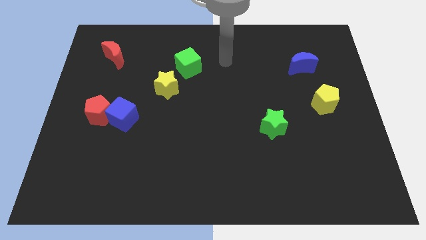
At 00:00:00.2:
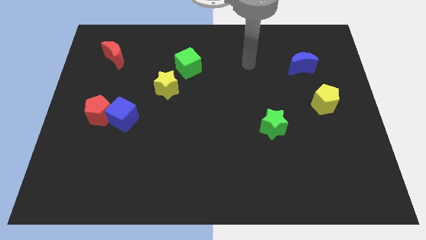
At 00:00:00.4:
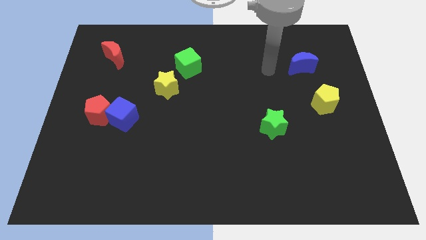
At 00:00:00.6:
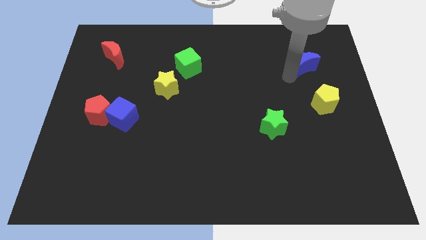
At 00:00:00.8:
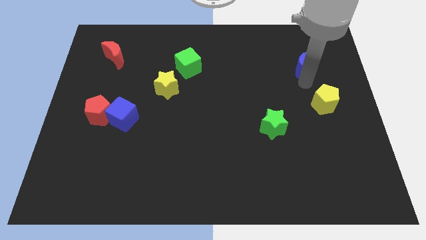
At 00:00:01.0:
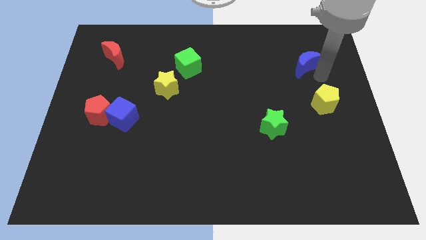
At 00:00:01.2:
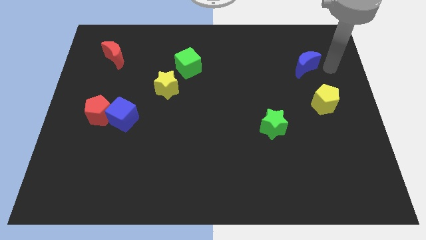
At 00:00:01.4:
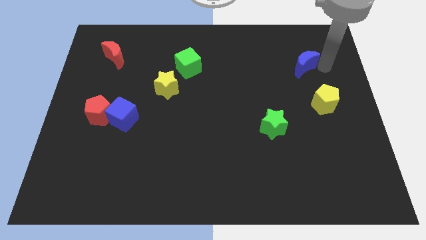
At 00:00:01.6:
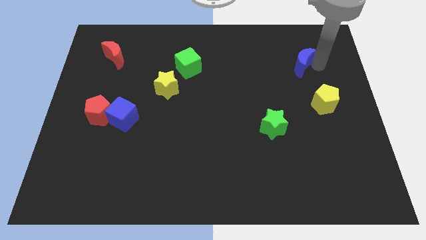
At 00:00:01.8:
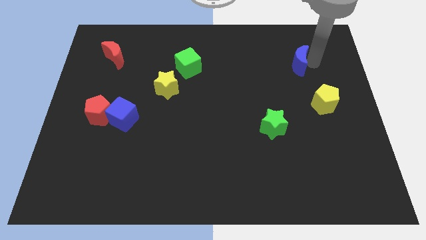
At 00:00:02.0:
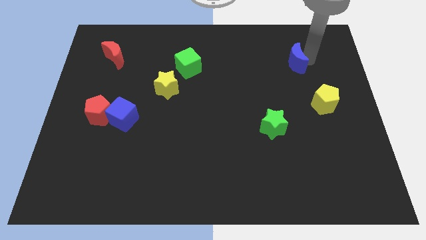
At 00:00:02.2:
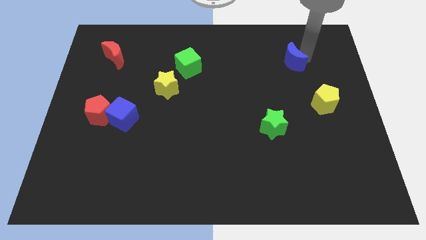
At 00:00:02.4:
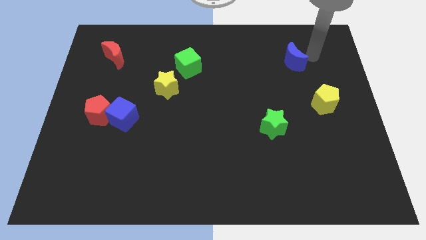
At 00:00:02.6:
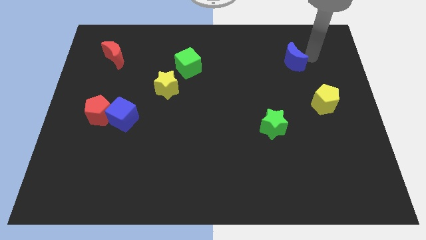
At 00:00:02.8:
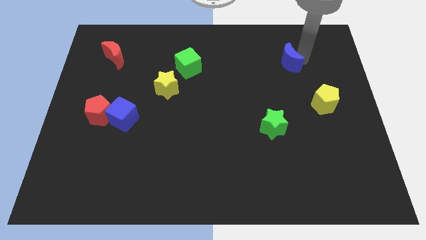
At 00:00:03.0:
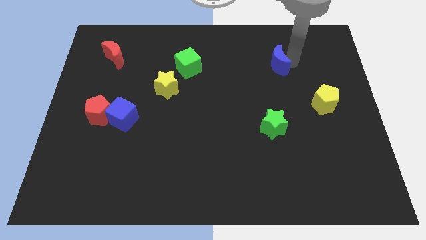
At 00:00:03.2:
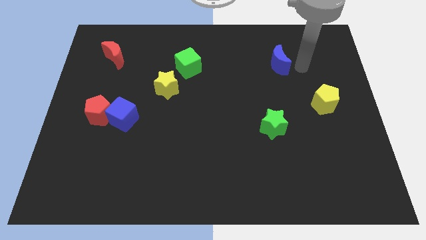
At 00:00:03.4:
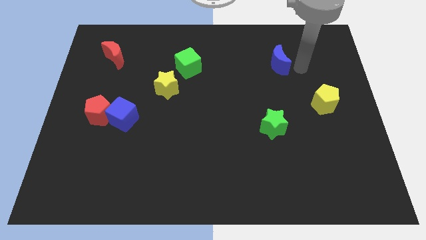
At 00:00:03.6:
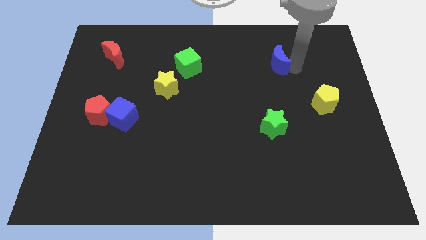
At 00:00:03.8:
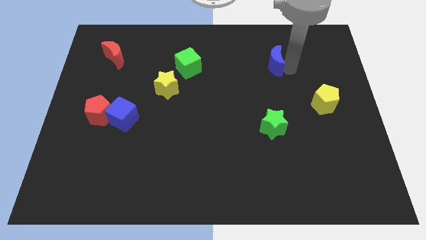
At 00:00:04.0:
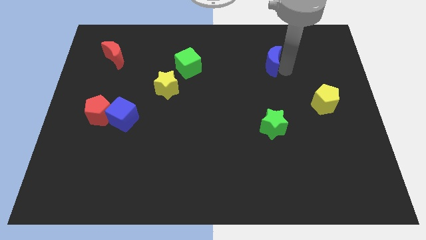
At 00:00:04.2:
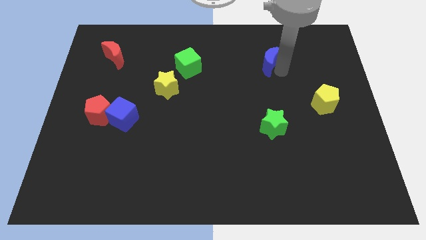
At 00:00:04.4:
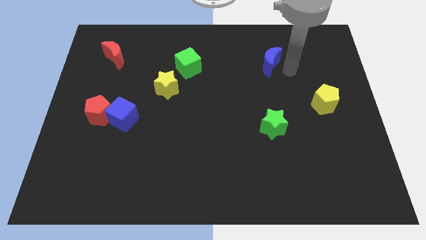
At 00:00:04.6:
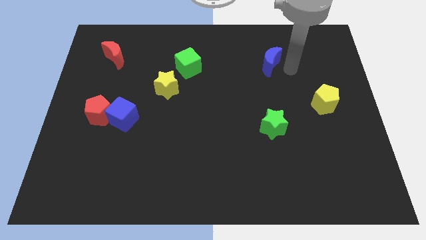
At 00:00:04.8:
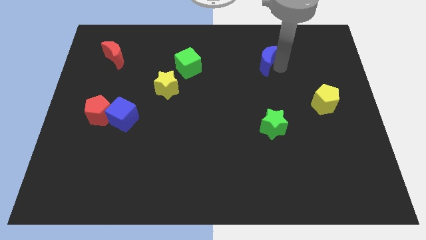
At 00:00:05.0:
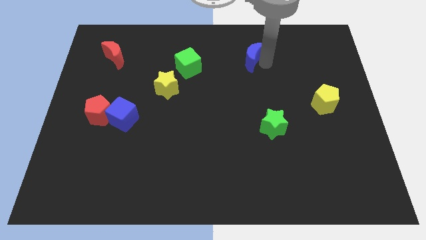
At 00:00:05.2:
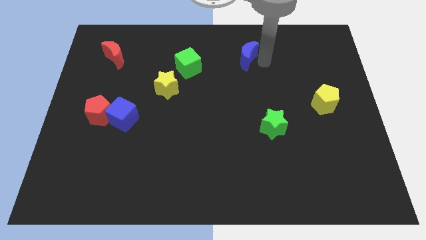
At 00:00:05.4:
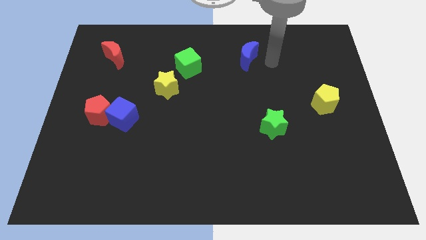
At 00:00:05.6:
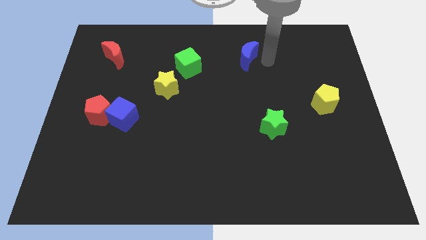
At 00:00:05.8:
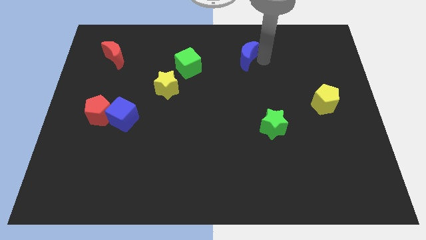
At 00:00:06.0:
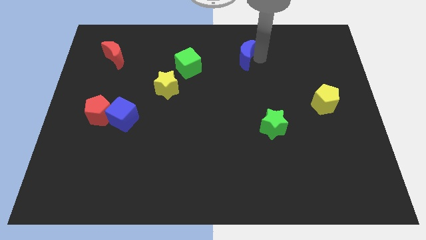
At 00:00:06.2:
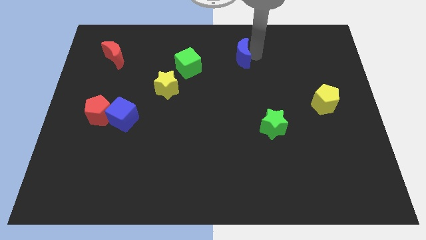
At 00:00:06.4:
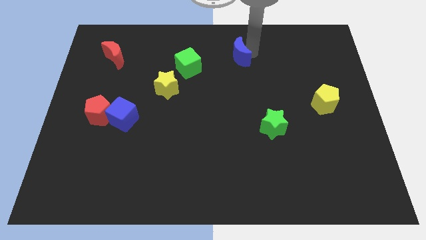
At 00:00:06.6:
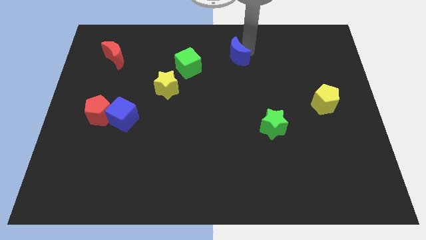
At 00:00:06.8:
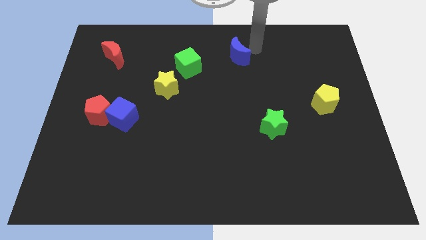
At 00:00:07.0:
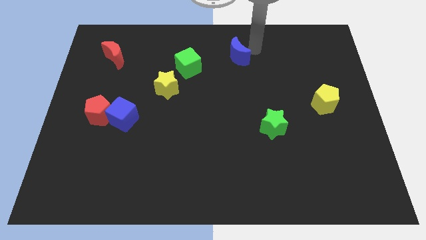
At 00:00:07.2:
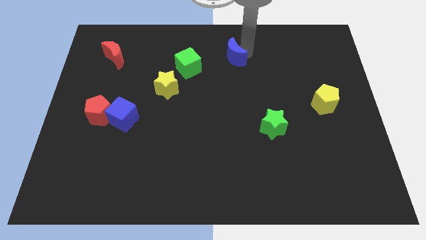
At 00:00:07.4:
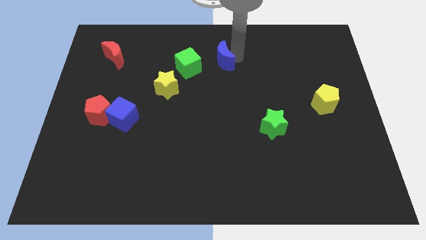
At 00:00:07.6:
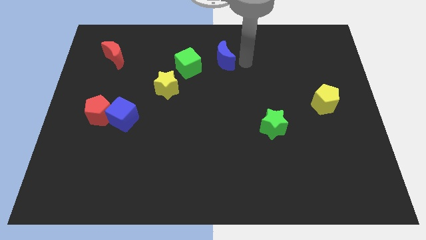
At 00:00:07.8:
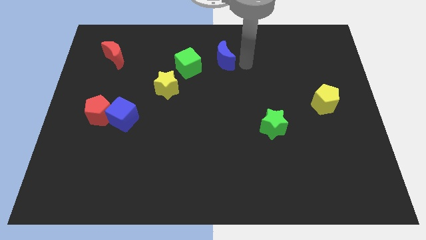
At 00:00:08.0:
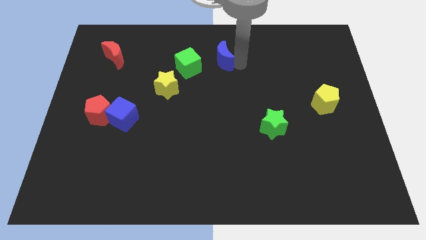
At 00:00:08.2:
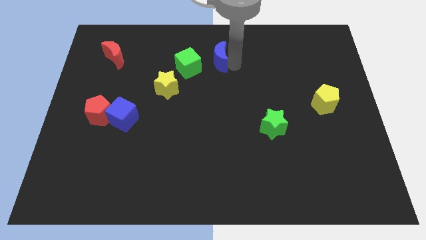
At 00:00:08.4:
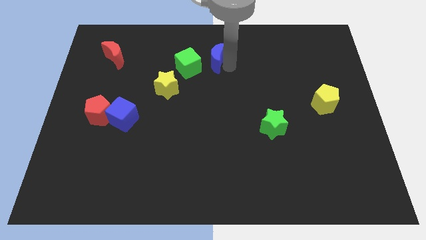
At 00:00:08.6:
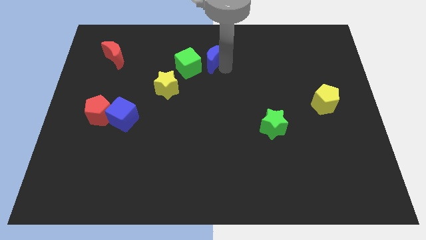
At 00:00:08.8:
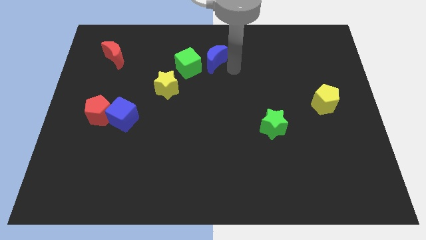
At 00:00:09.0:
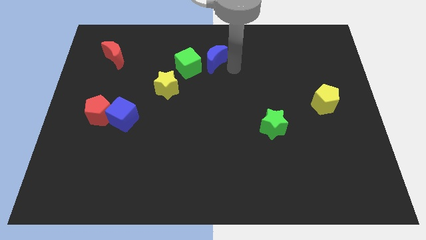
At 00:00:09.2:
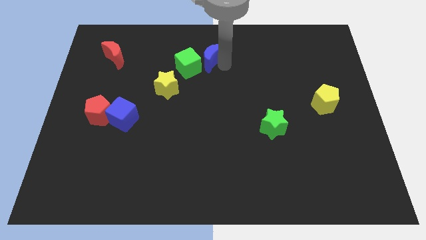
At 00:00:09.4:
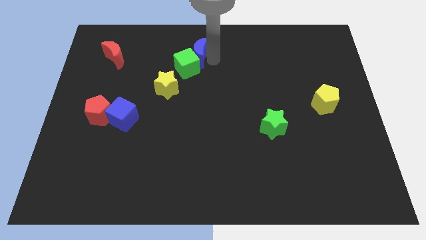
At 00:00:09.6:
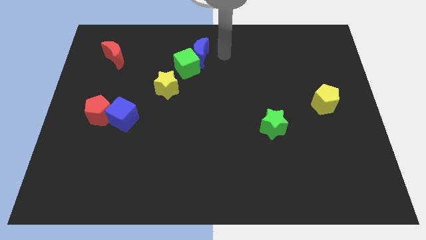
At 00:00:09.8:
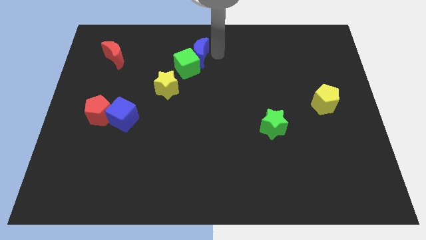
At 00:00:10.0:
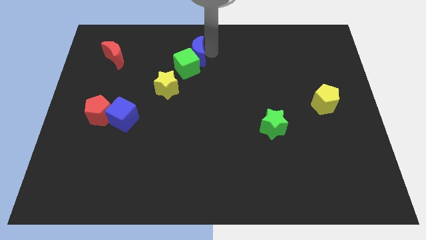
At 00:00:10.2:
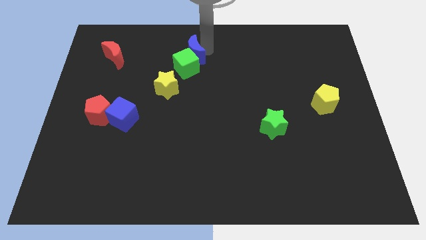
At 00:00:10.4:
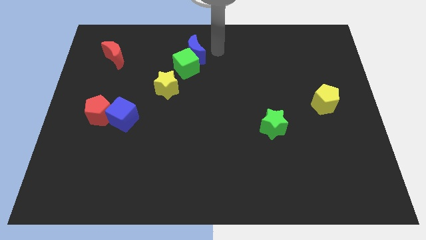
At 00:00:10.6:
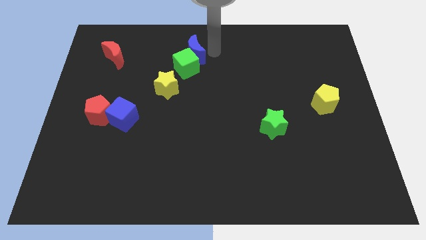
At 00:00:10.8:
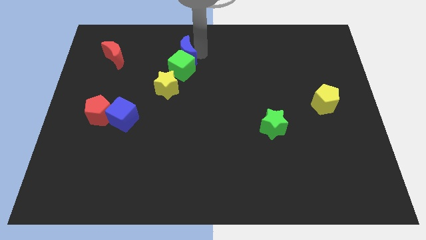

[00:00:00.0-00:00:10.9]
push the blue moon to the top side of the yellow star

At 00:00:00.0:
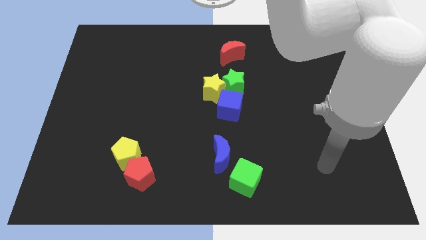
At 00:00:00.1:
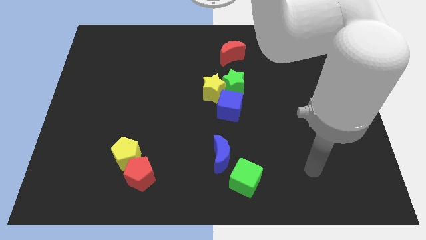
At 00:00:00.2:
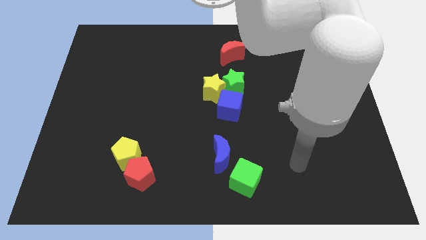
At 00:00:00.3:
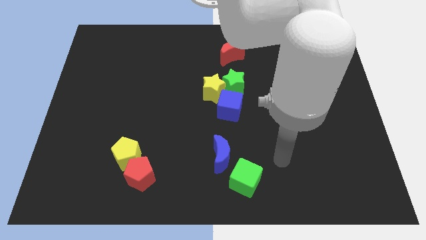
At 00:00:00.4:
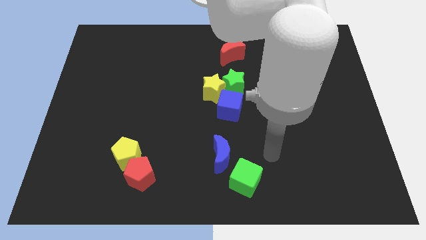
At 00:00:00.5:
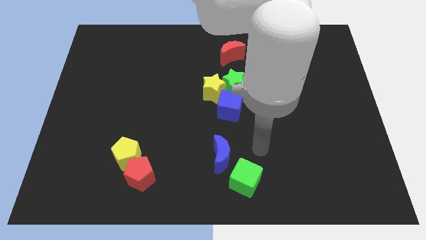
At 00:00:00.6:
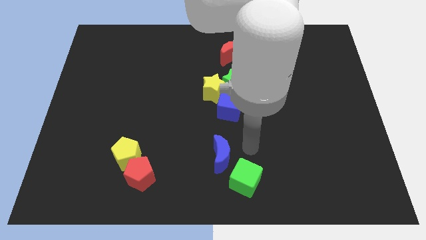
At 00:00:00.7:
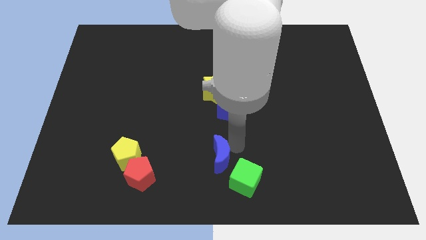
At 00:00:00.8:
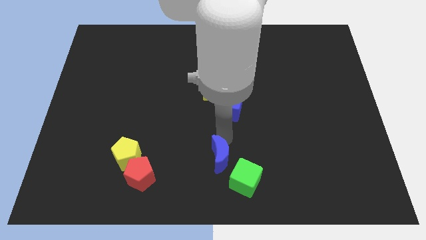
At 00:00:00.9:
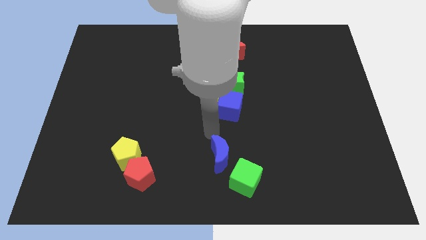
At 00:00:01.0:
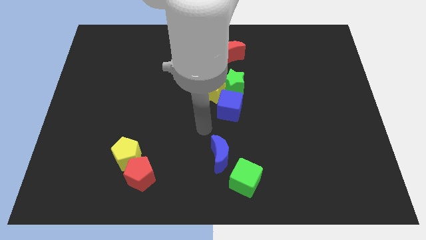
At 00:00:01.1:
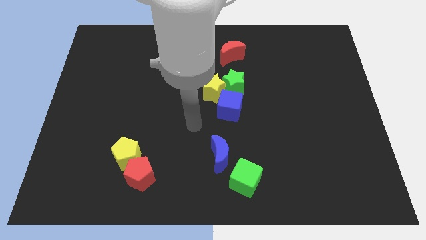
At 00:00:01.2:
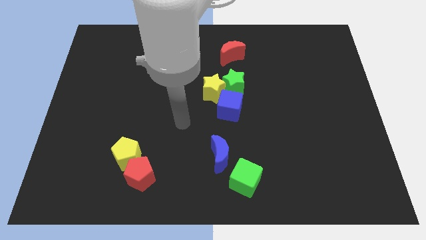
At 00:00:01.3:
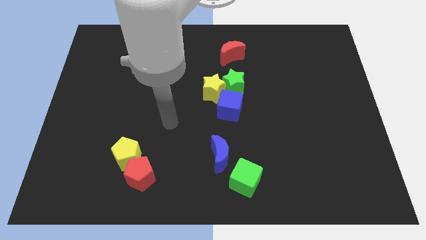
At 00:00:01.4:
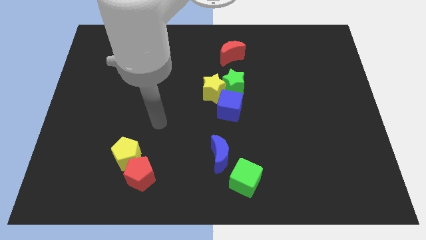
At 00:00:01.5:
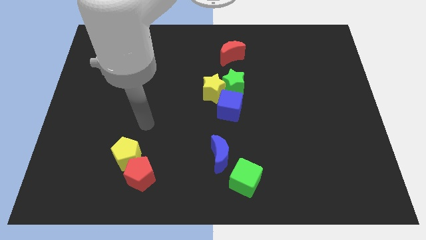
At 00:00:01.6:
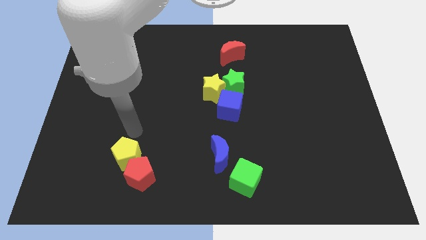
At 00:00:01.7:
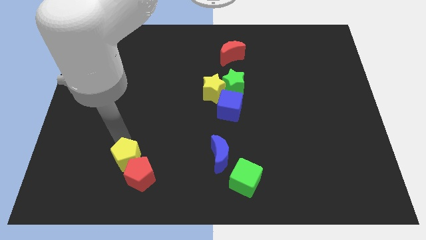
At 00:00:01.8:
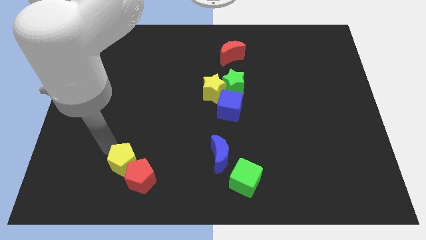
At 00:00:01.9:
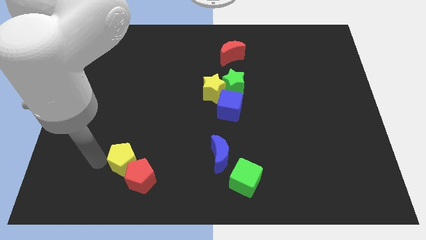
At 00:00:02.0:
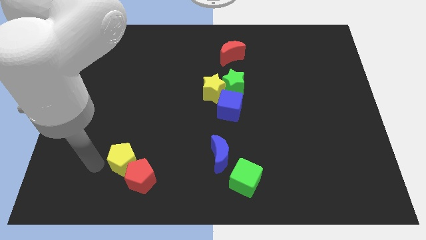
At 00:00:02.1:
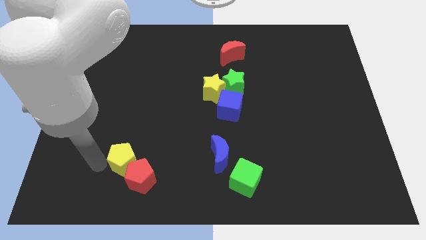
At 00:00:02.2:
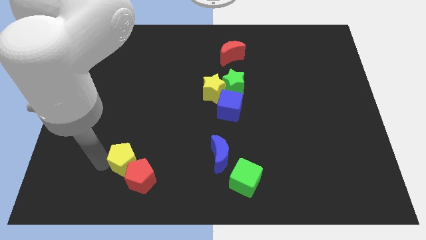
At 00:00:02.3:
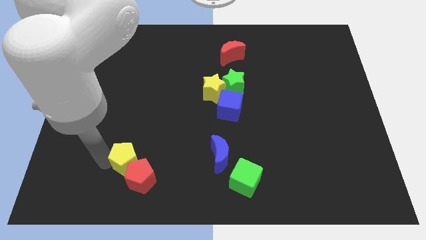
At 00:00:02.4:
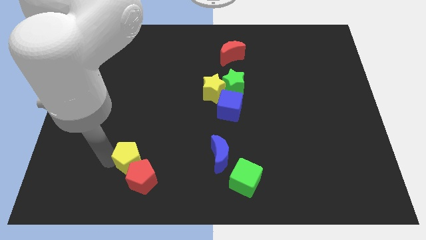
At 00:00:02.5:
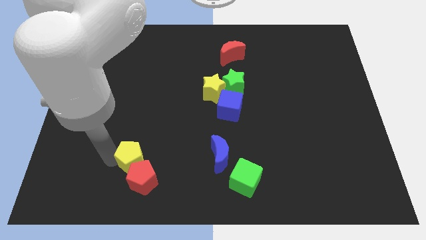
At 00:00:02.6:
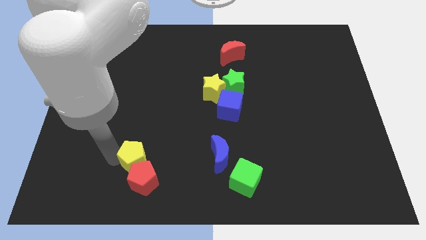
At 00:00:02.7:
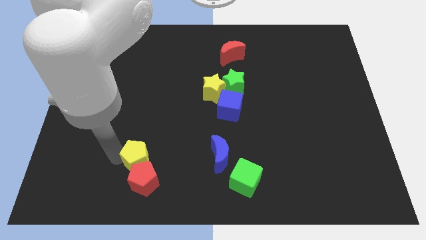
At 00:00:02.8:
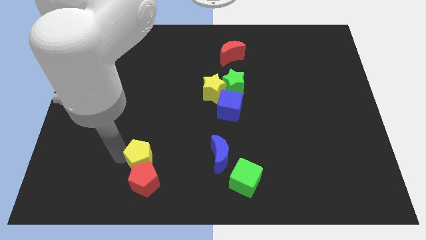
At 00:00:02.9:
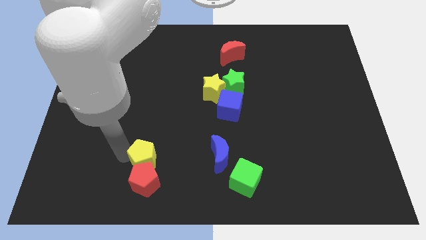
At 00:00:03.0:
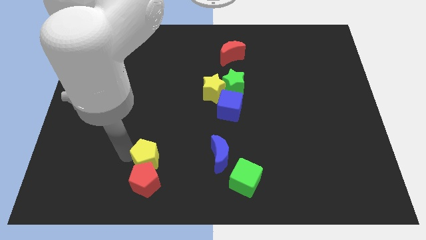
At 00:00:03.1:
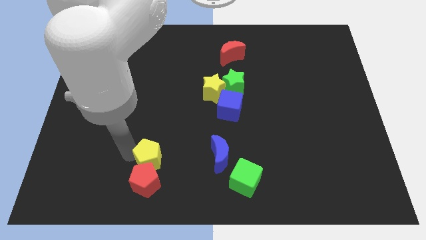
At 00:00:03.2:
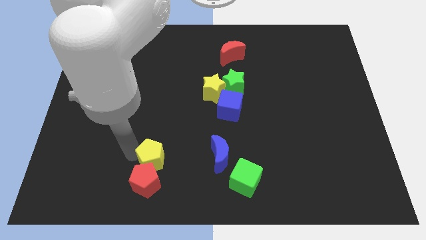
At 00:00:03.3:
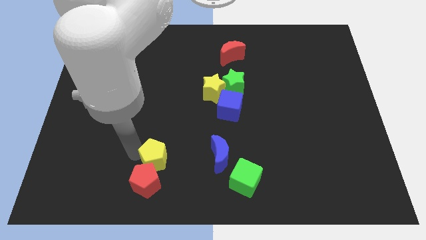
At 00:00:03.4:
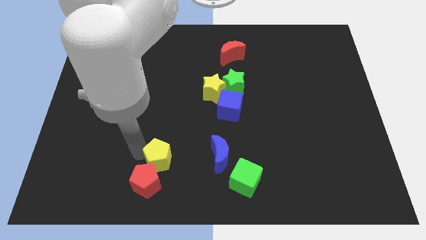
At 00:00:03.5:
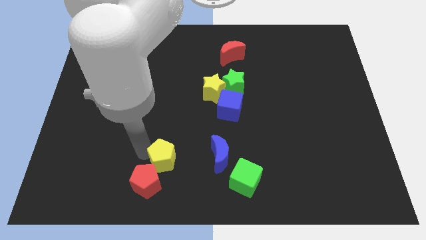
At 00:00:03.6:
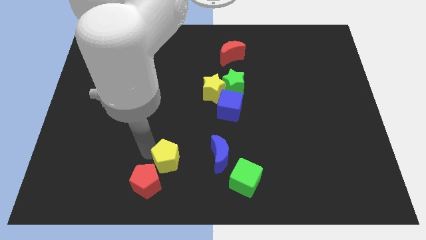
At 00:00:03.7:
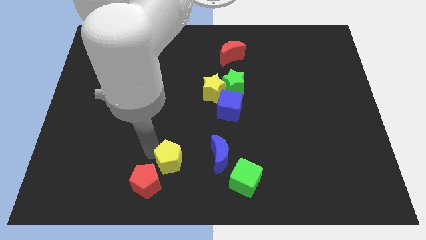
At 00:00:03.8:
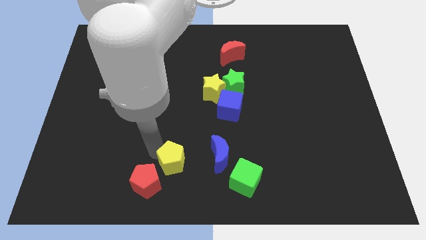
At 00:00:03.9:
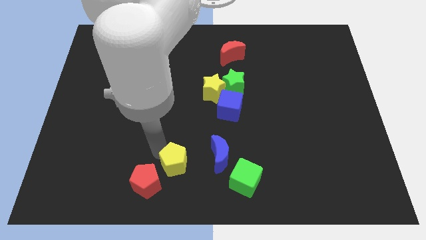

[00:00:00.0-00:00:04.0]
slide the yellow pentagon just left of the green cube
